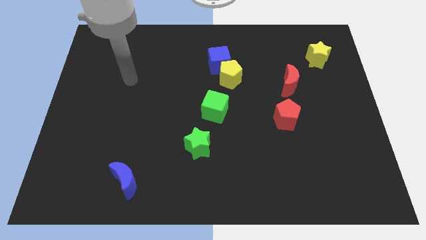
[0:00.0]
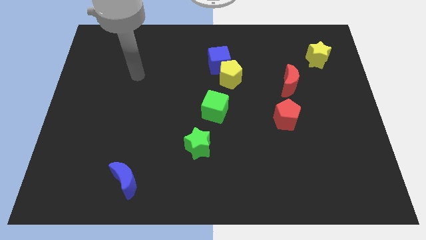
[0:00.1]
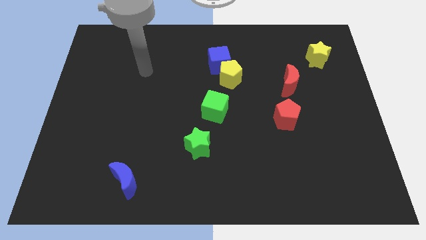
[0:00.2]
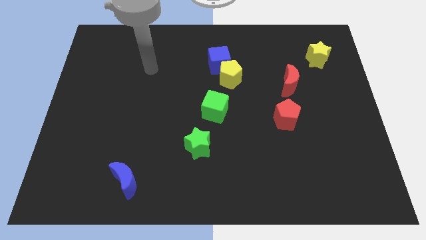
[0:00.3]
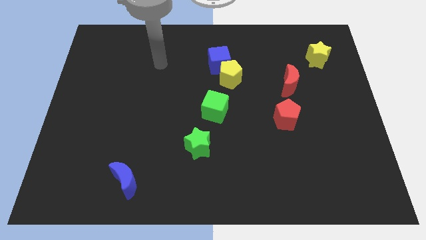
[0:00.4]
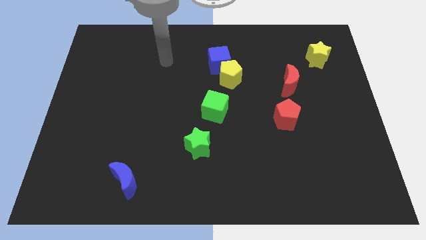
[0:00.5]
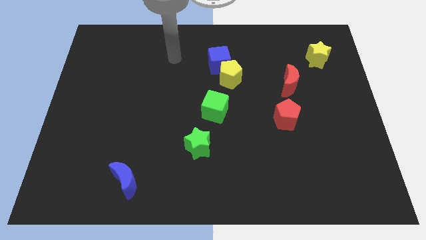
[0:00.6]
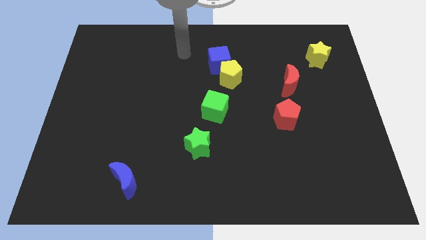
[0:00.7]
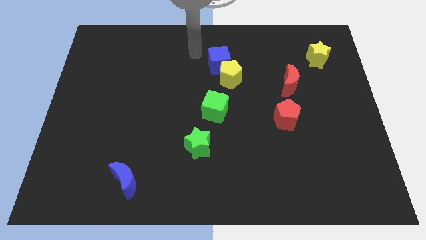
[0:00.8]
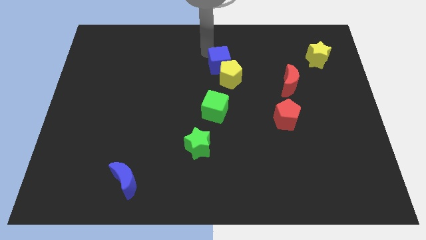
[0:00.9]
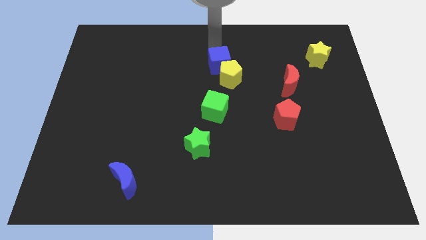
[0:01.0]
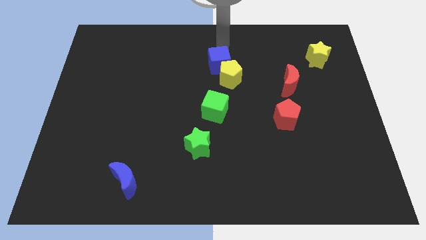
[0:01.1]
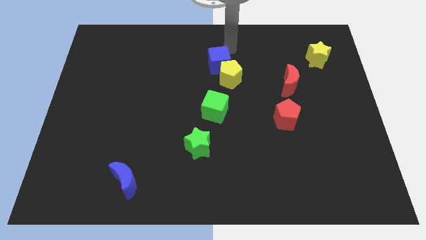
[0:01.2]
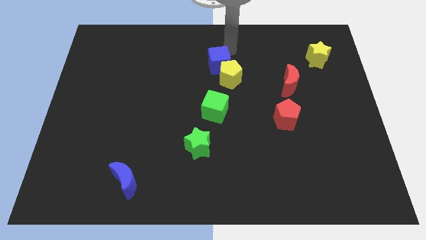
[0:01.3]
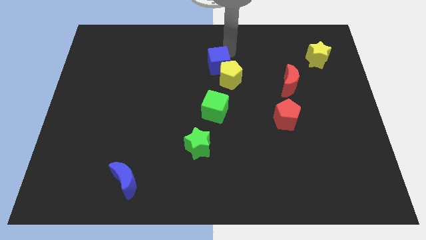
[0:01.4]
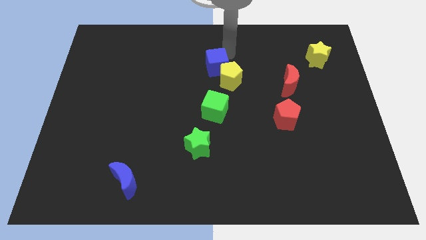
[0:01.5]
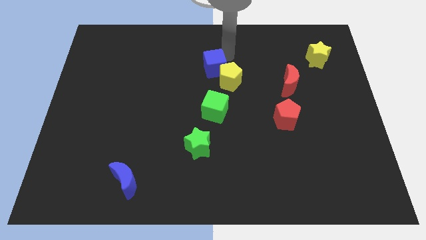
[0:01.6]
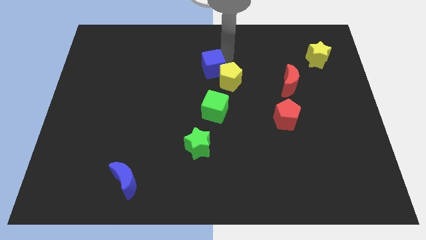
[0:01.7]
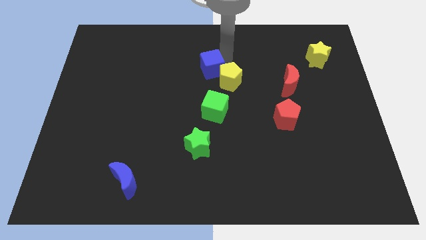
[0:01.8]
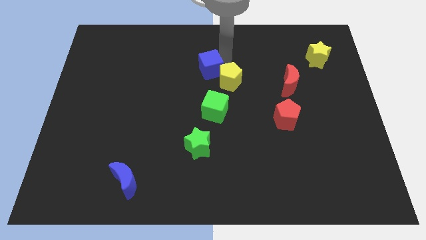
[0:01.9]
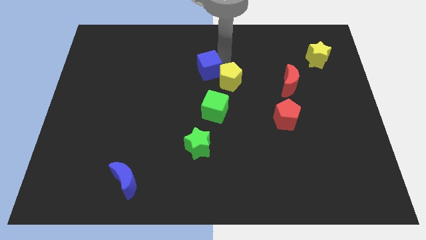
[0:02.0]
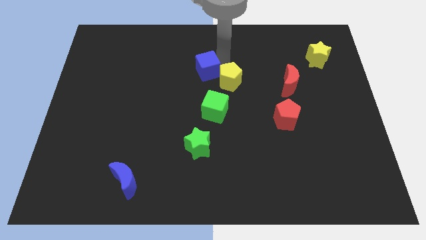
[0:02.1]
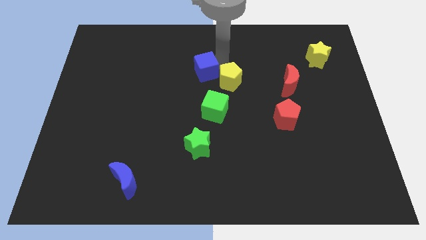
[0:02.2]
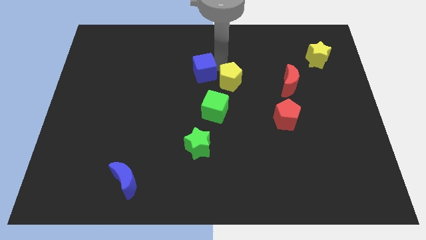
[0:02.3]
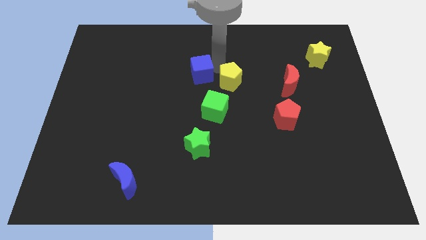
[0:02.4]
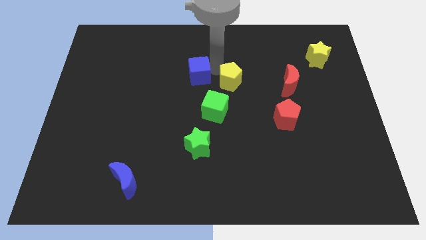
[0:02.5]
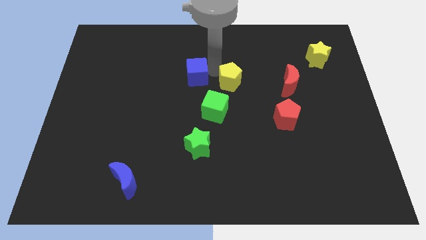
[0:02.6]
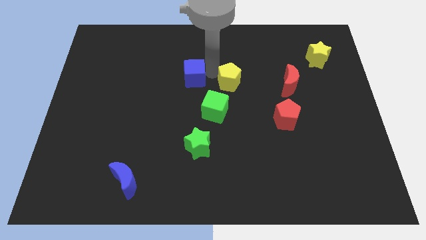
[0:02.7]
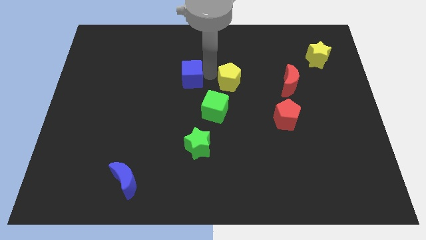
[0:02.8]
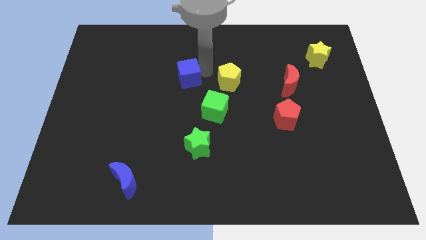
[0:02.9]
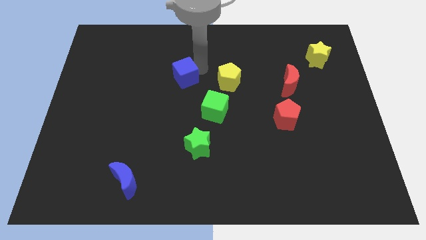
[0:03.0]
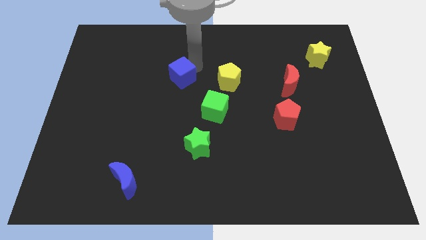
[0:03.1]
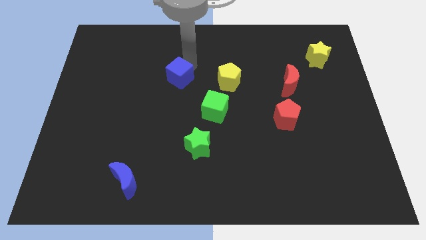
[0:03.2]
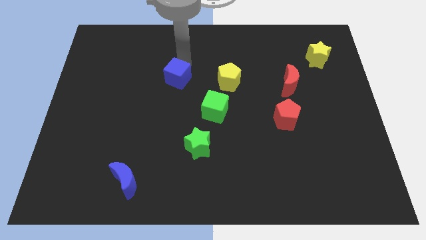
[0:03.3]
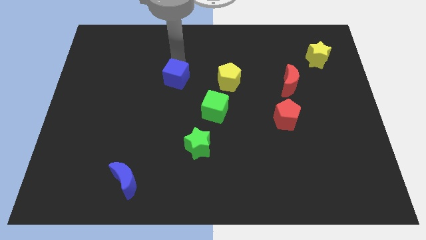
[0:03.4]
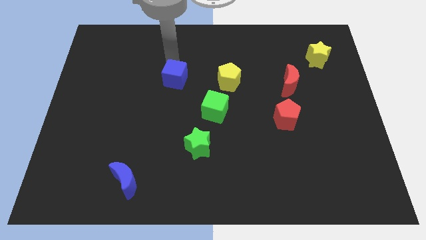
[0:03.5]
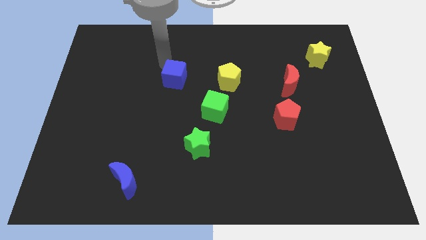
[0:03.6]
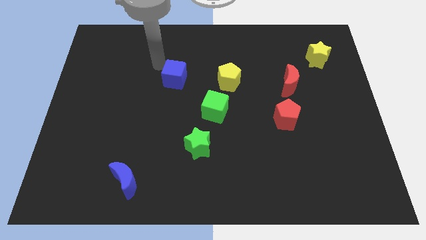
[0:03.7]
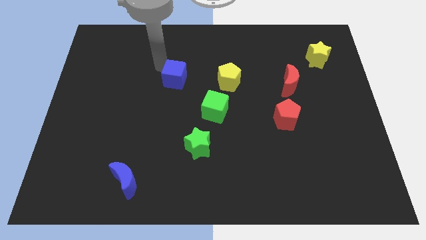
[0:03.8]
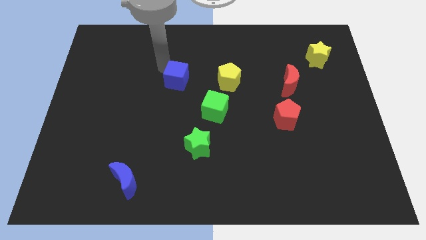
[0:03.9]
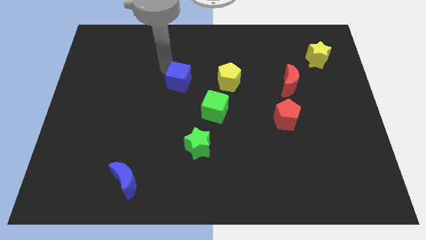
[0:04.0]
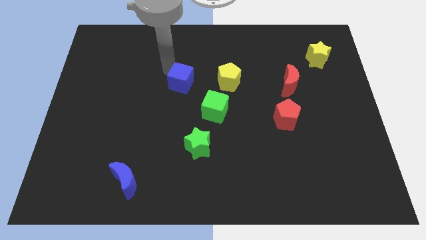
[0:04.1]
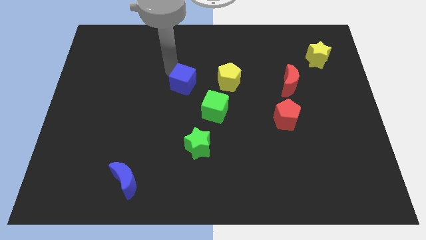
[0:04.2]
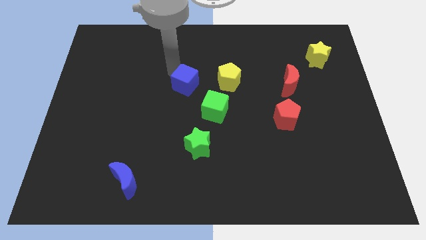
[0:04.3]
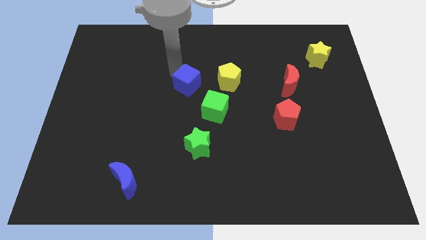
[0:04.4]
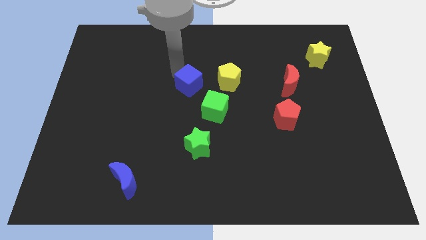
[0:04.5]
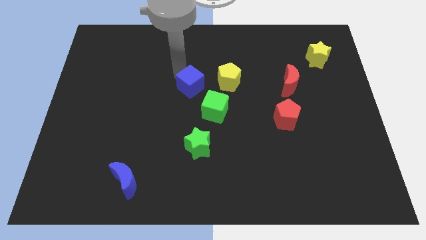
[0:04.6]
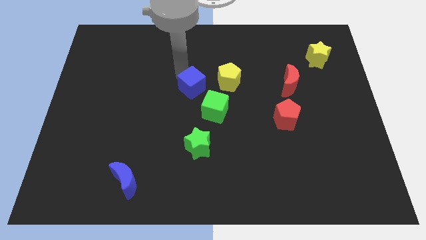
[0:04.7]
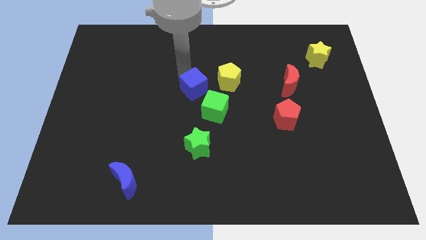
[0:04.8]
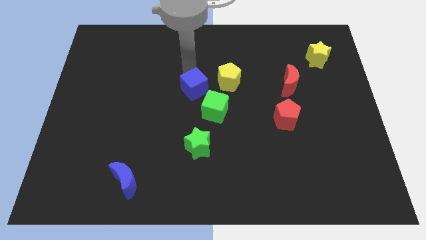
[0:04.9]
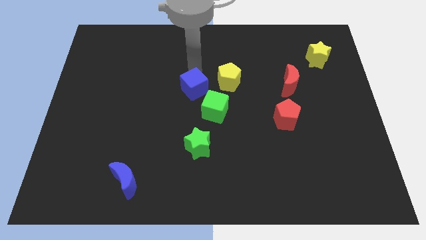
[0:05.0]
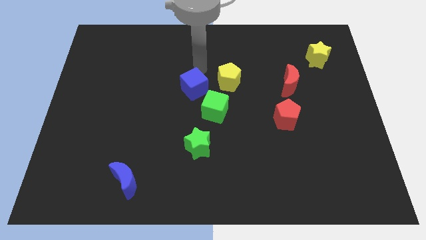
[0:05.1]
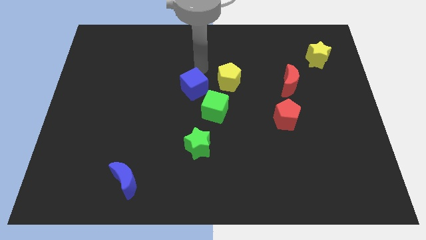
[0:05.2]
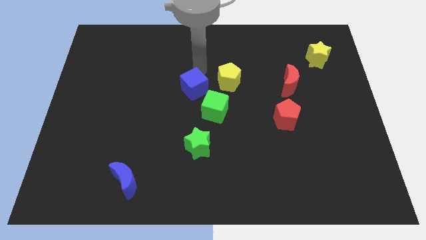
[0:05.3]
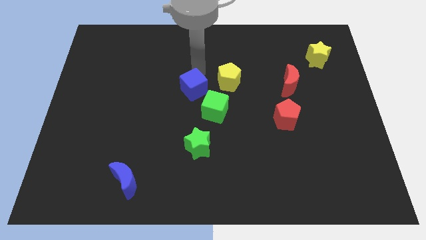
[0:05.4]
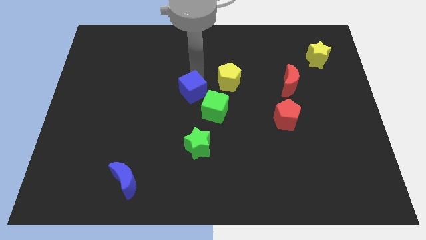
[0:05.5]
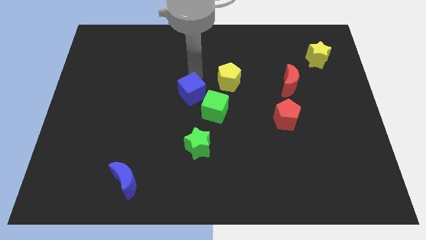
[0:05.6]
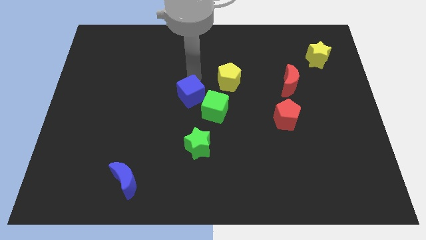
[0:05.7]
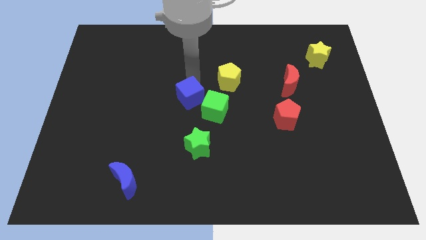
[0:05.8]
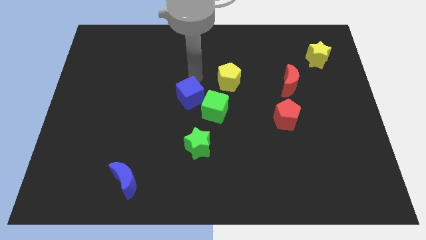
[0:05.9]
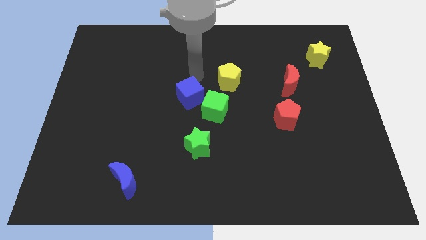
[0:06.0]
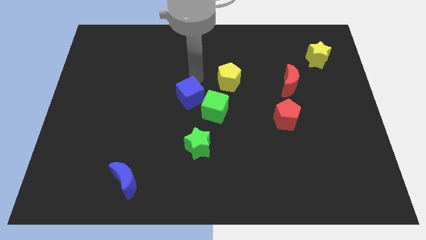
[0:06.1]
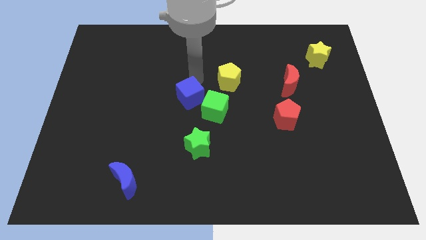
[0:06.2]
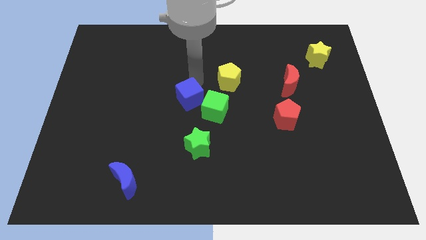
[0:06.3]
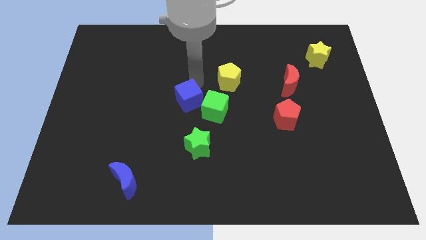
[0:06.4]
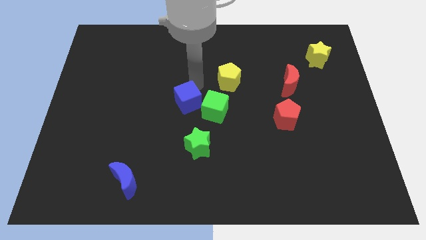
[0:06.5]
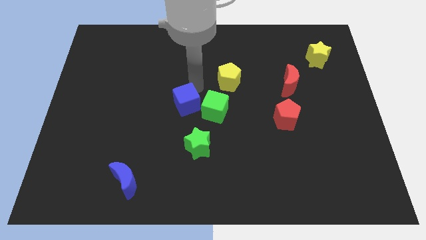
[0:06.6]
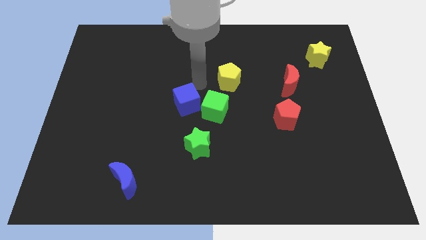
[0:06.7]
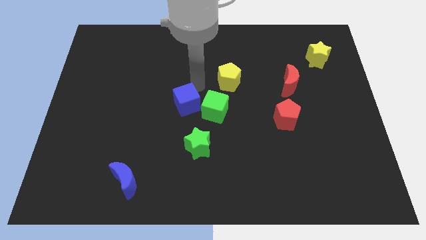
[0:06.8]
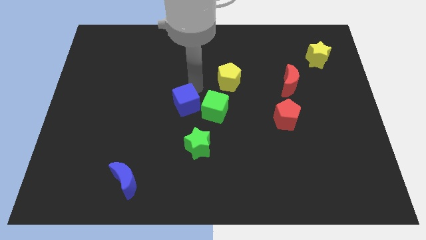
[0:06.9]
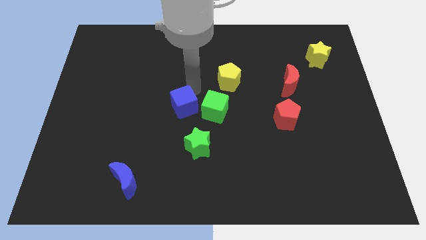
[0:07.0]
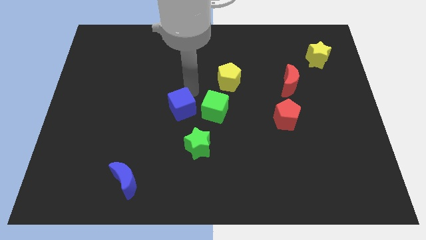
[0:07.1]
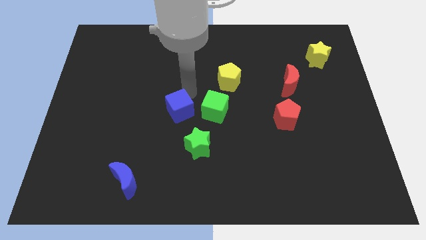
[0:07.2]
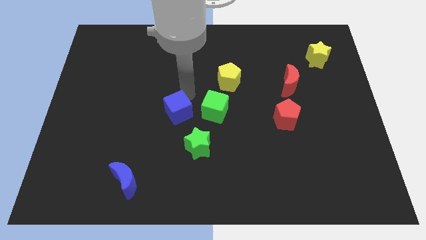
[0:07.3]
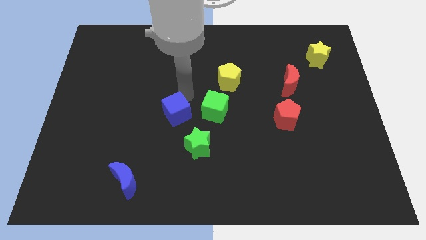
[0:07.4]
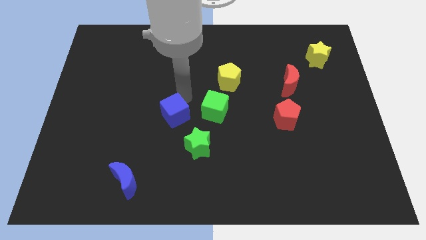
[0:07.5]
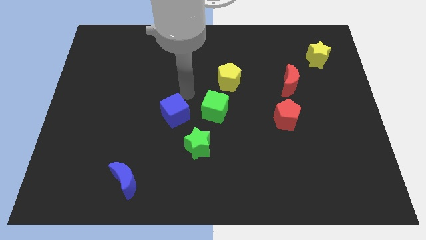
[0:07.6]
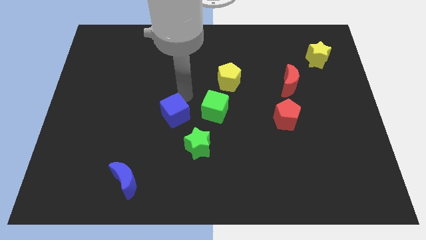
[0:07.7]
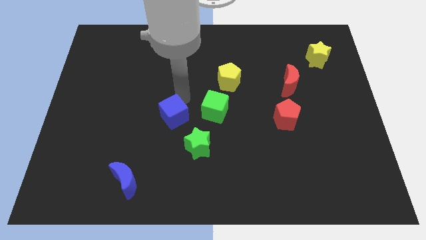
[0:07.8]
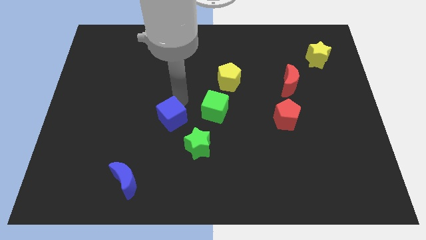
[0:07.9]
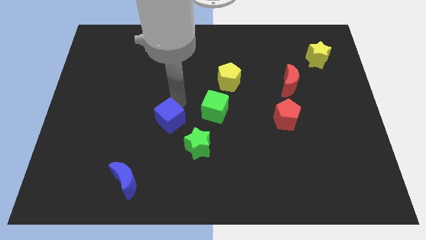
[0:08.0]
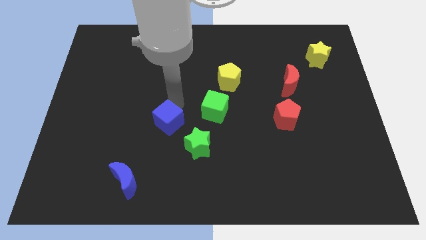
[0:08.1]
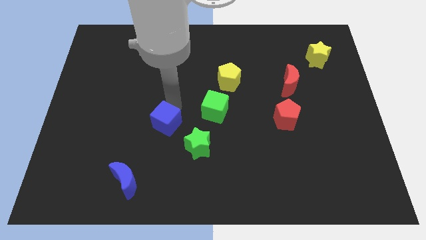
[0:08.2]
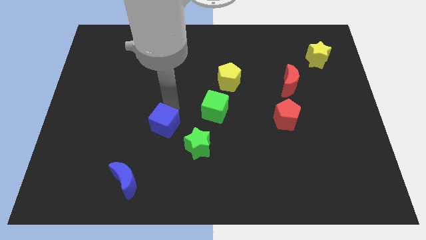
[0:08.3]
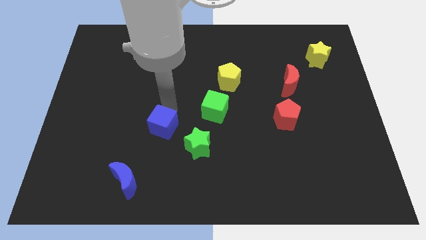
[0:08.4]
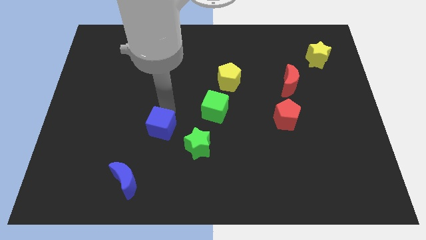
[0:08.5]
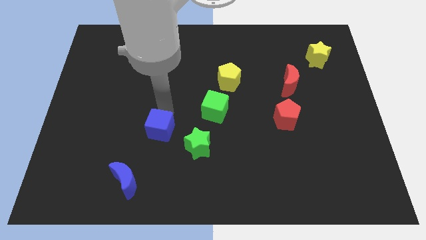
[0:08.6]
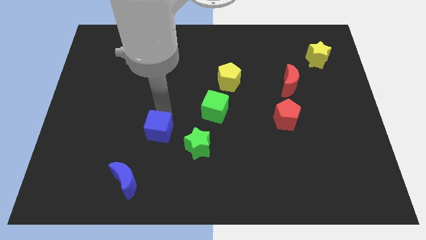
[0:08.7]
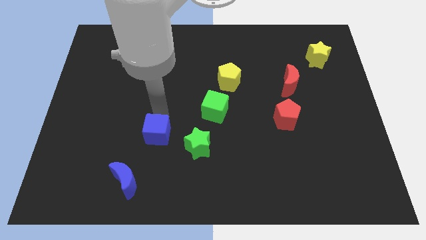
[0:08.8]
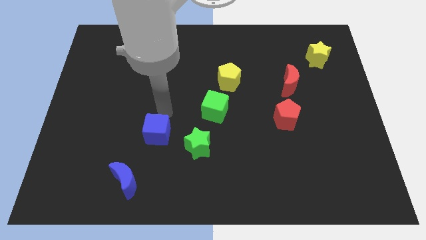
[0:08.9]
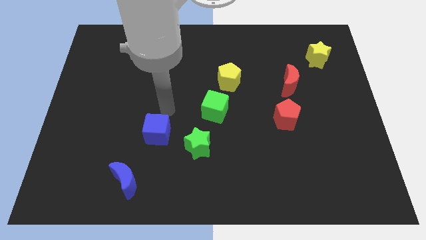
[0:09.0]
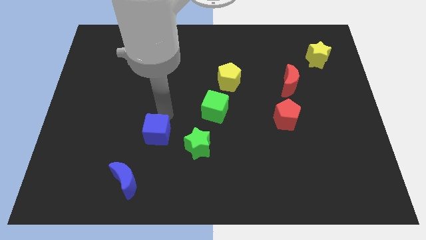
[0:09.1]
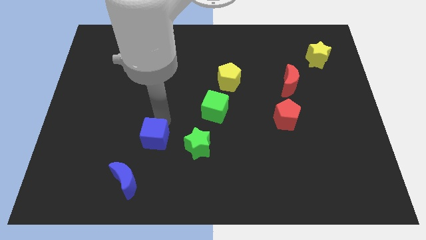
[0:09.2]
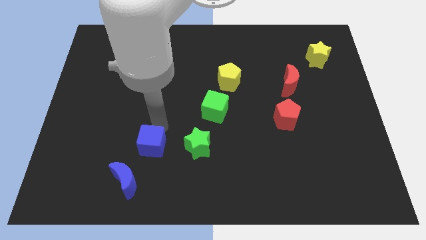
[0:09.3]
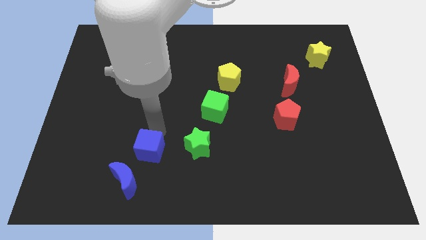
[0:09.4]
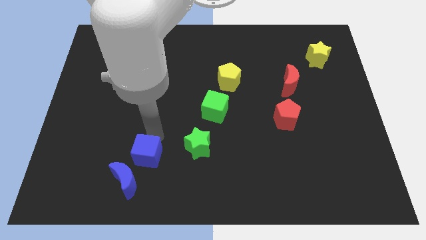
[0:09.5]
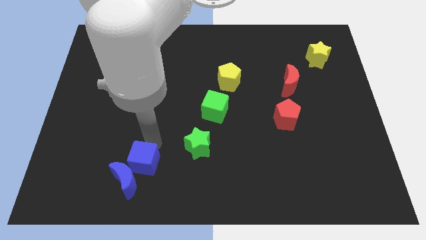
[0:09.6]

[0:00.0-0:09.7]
slide the blue cube to the blue moon
